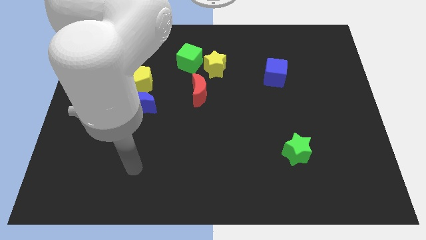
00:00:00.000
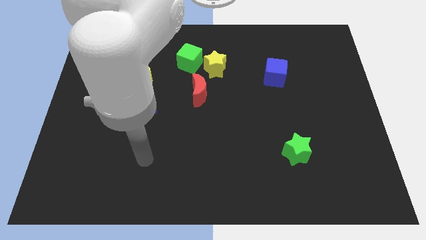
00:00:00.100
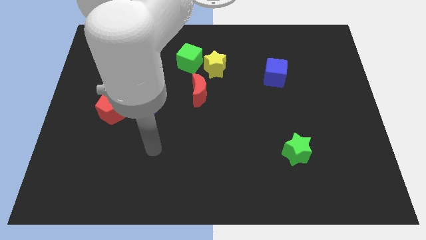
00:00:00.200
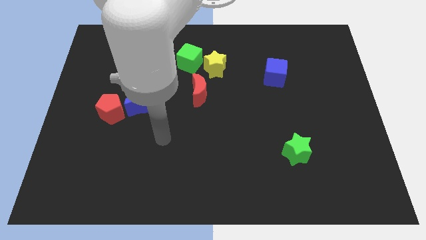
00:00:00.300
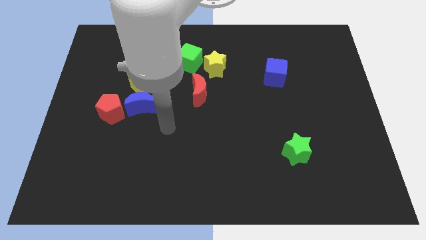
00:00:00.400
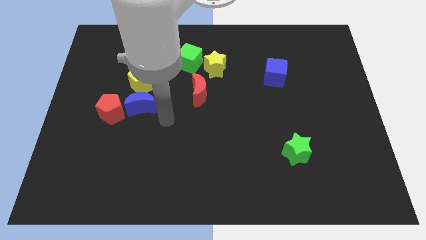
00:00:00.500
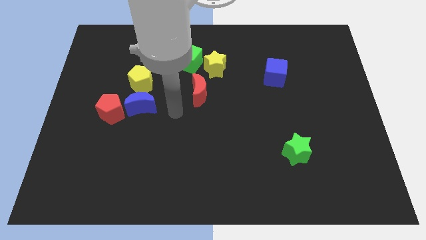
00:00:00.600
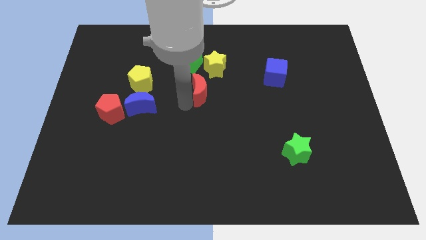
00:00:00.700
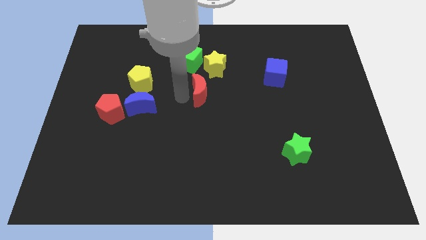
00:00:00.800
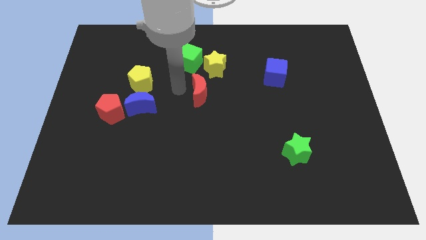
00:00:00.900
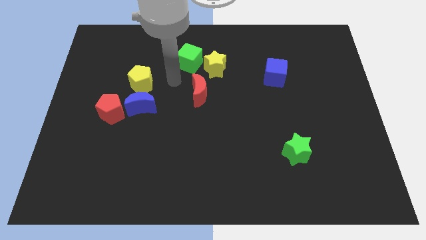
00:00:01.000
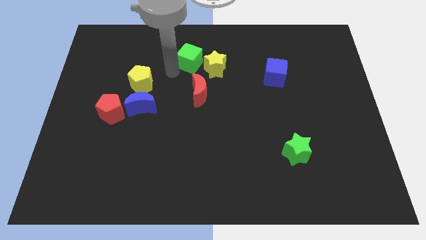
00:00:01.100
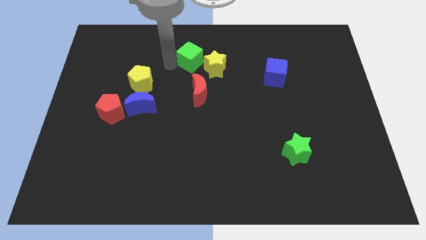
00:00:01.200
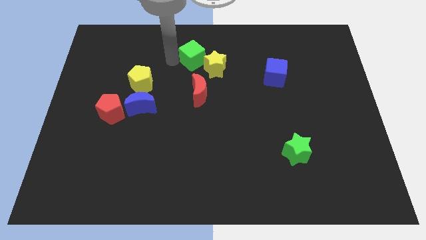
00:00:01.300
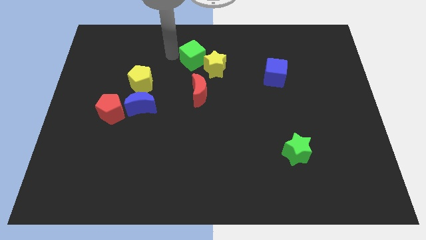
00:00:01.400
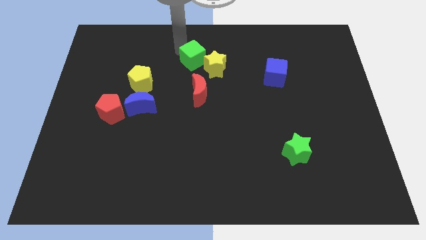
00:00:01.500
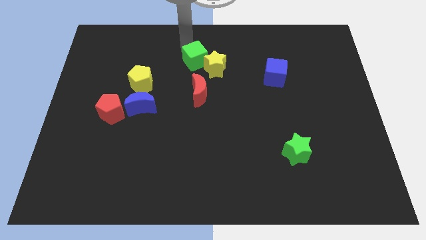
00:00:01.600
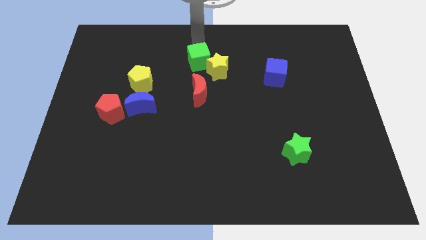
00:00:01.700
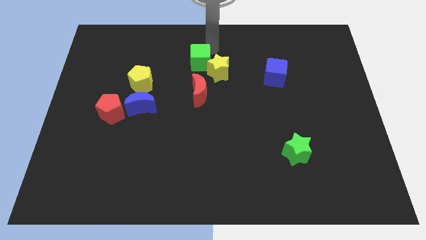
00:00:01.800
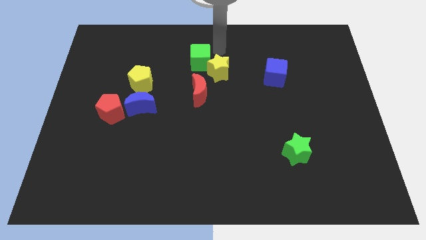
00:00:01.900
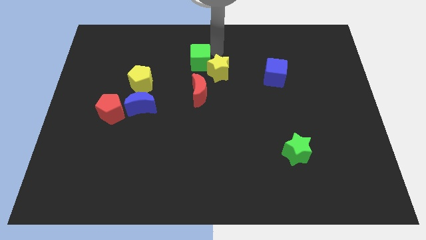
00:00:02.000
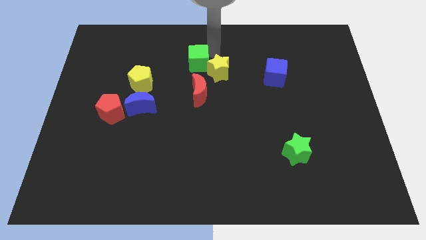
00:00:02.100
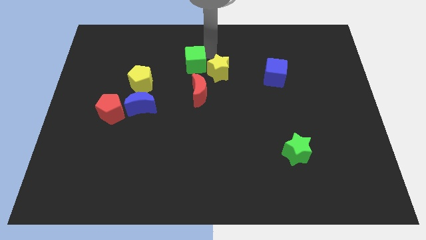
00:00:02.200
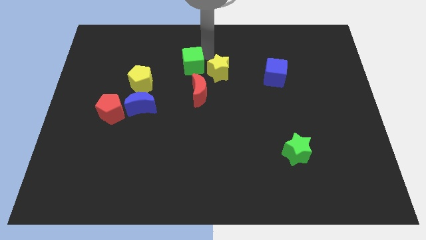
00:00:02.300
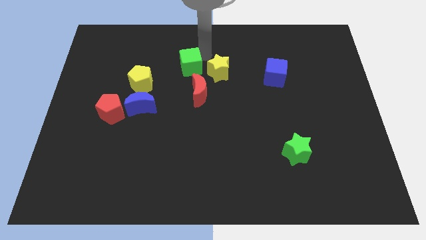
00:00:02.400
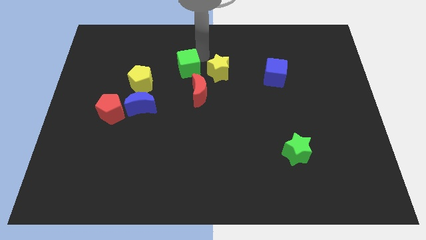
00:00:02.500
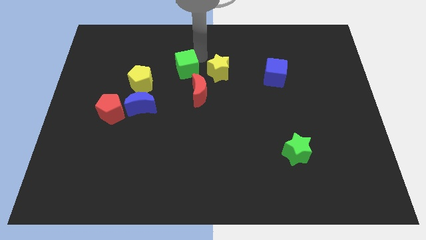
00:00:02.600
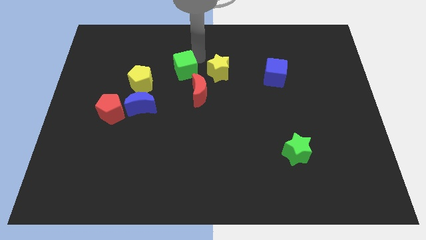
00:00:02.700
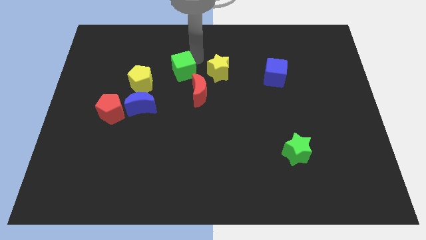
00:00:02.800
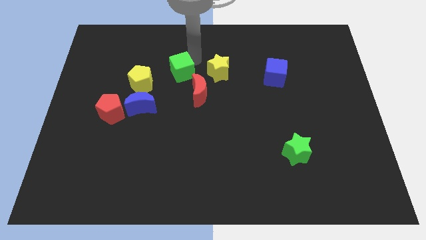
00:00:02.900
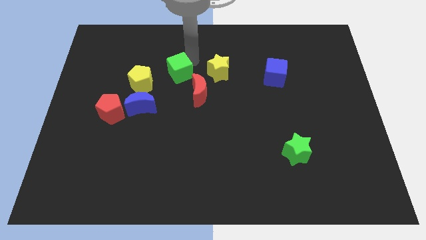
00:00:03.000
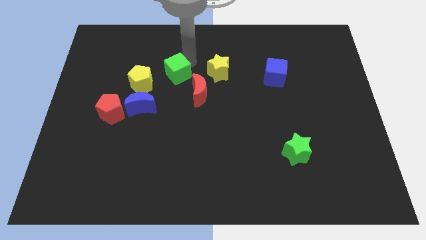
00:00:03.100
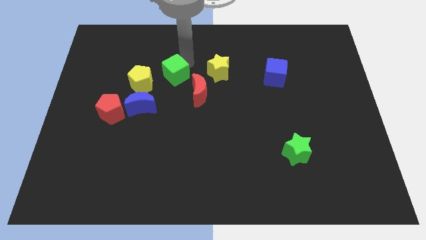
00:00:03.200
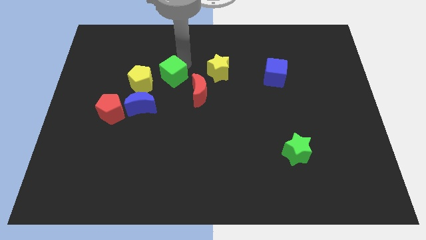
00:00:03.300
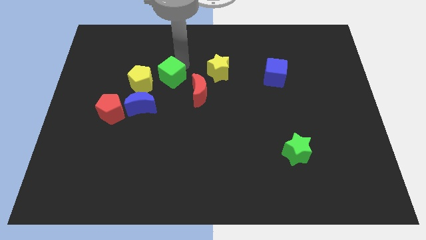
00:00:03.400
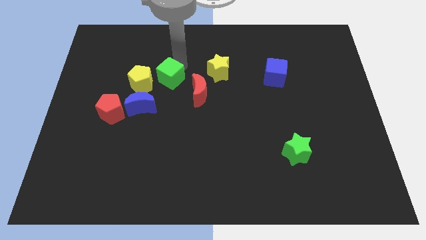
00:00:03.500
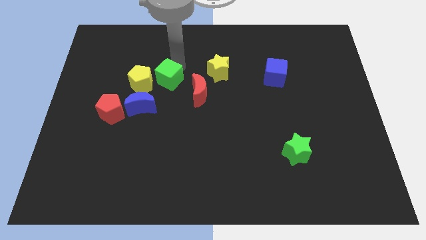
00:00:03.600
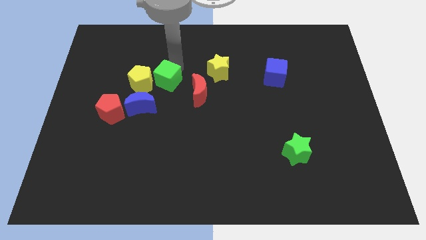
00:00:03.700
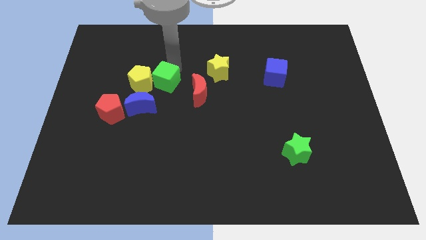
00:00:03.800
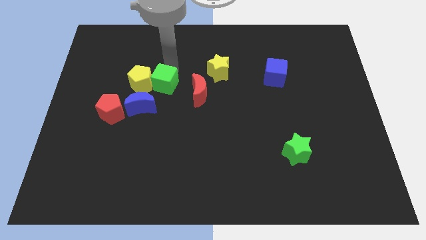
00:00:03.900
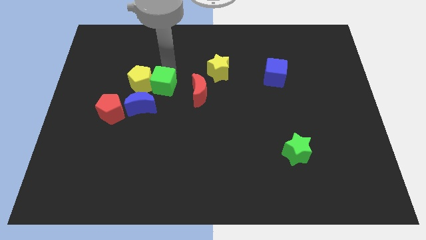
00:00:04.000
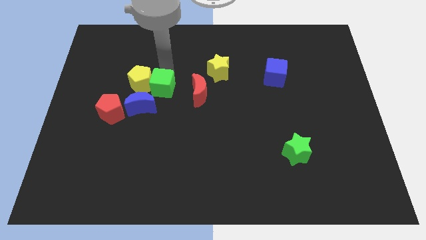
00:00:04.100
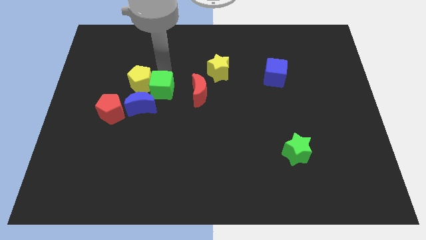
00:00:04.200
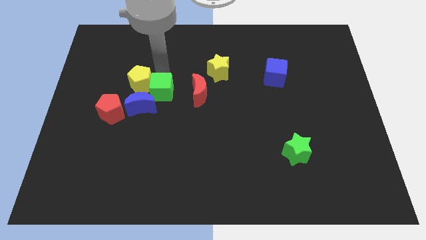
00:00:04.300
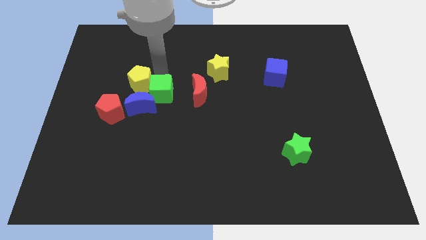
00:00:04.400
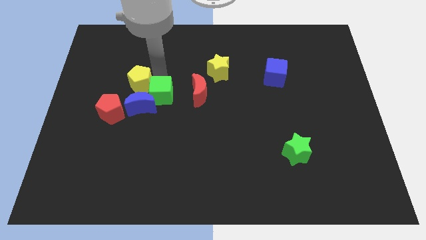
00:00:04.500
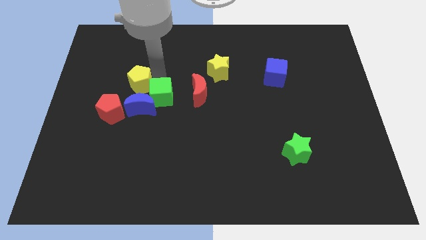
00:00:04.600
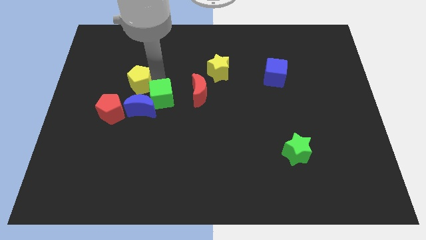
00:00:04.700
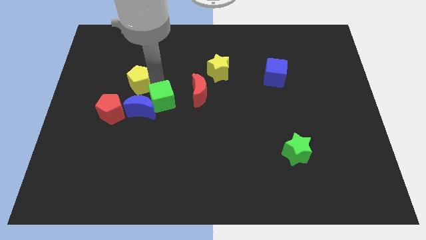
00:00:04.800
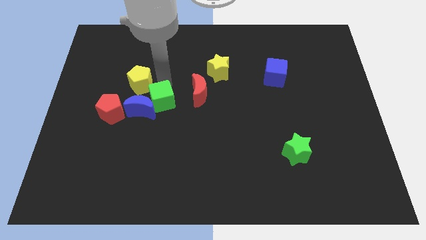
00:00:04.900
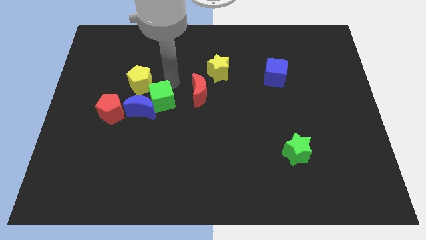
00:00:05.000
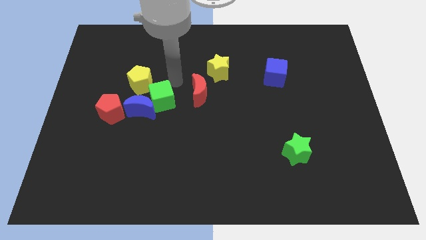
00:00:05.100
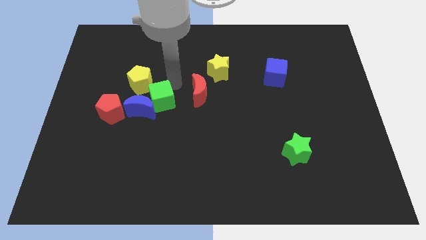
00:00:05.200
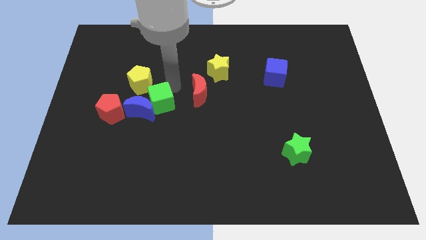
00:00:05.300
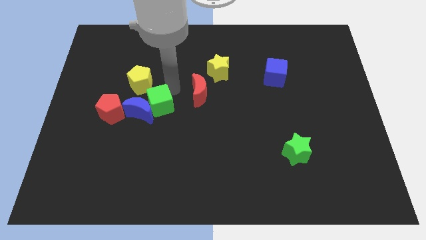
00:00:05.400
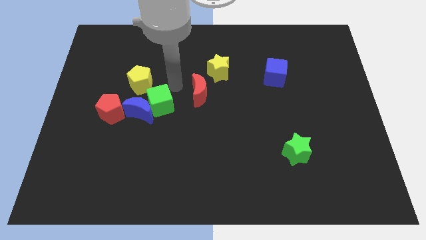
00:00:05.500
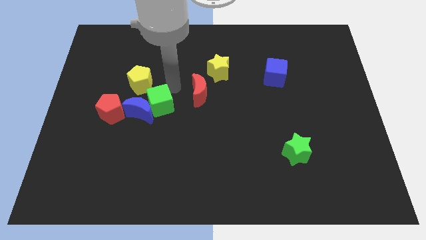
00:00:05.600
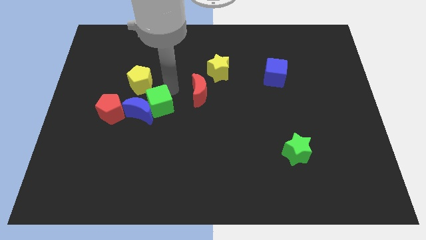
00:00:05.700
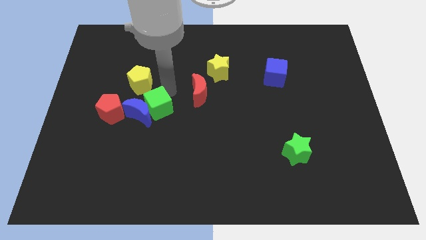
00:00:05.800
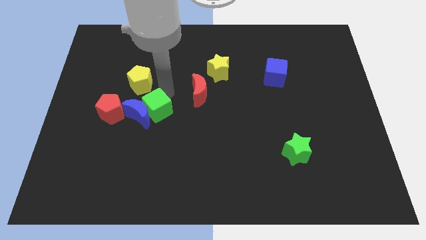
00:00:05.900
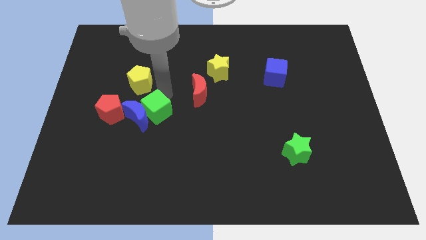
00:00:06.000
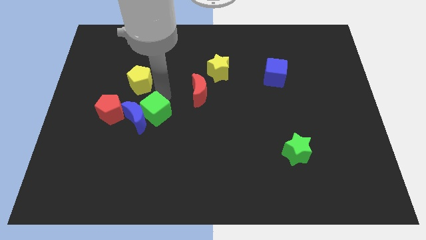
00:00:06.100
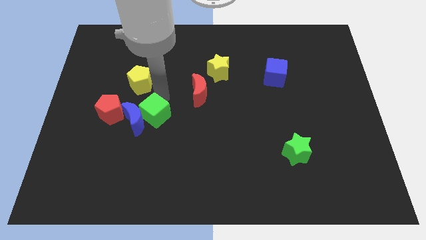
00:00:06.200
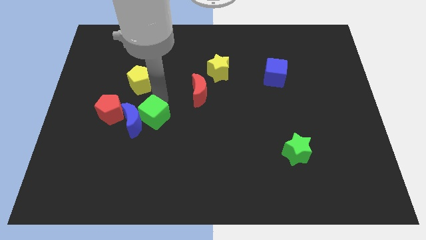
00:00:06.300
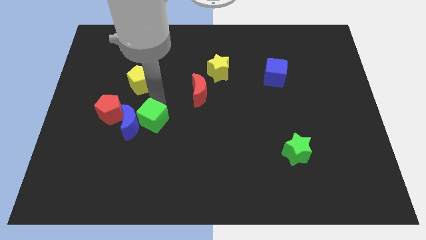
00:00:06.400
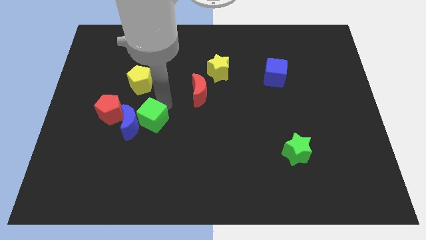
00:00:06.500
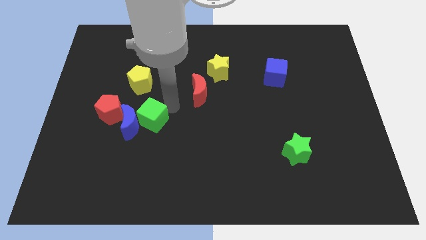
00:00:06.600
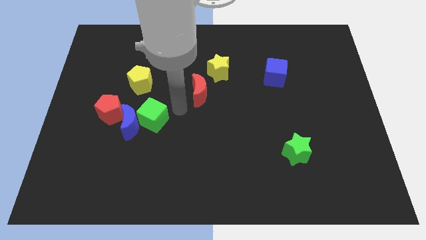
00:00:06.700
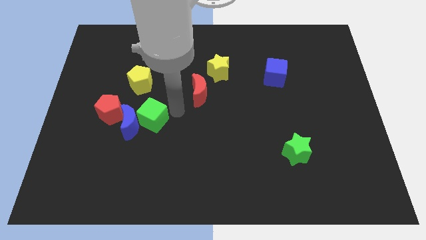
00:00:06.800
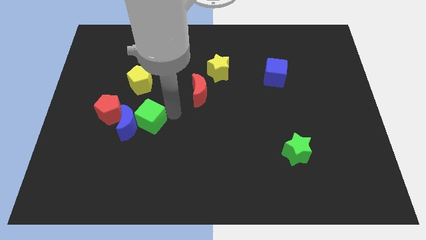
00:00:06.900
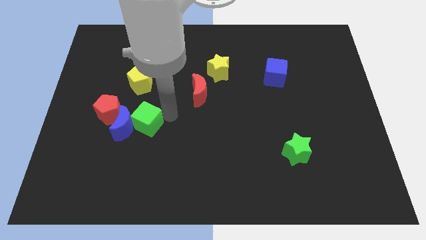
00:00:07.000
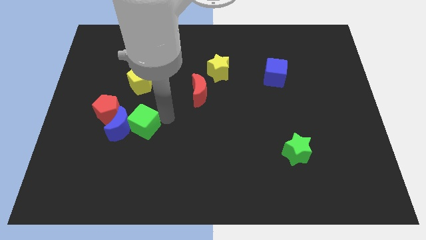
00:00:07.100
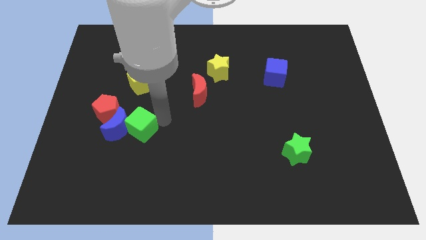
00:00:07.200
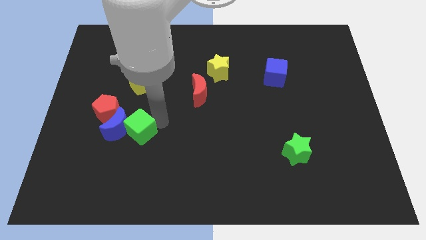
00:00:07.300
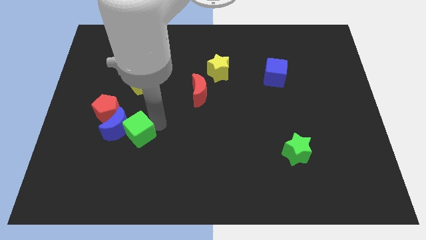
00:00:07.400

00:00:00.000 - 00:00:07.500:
slide the green cube downwards and then to the left

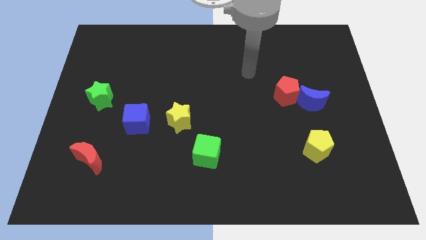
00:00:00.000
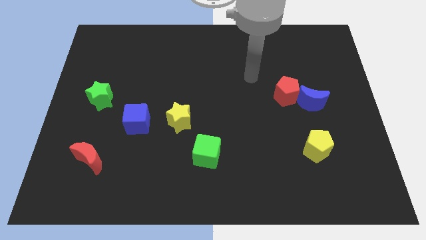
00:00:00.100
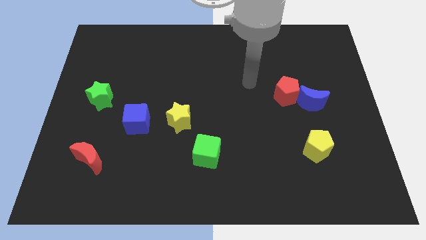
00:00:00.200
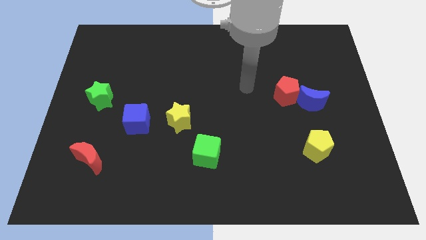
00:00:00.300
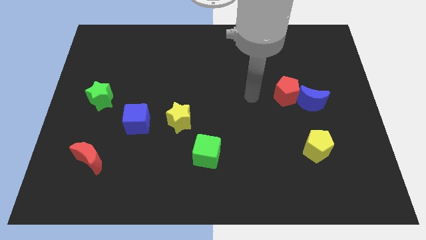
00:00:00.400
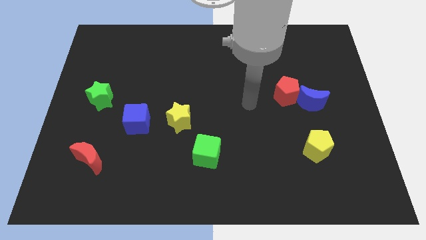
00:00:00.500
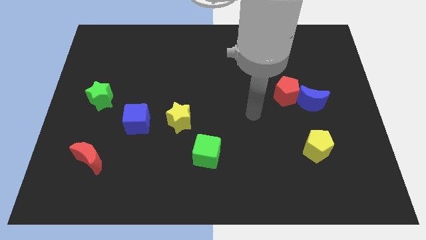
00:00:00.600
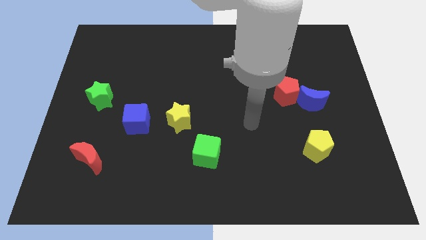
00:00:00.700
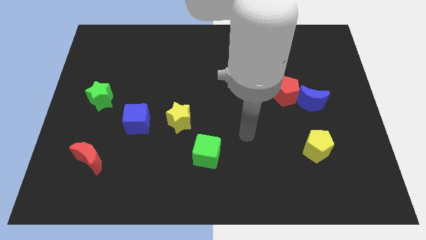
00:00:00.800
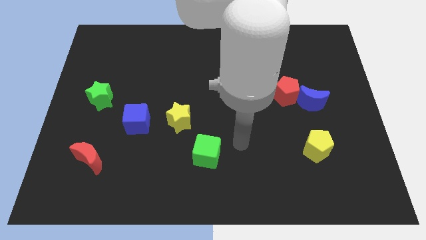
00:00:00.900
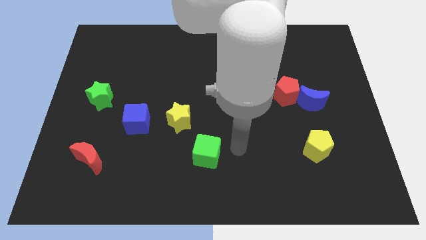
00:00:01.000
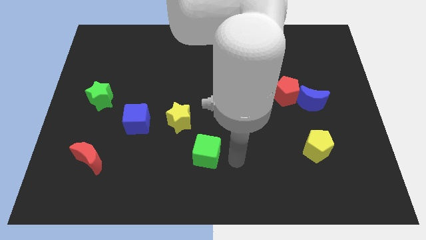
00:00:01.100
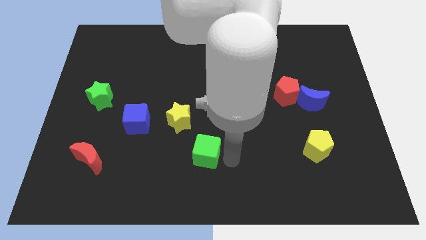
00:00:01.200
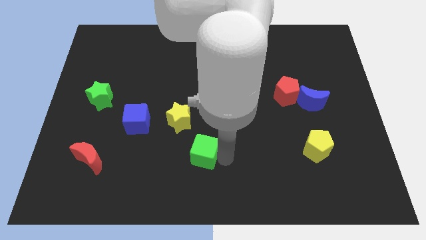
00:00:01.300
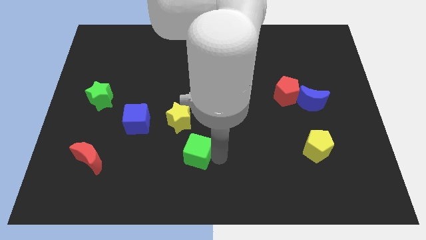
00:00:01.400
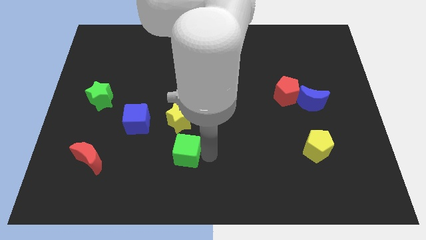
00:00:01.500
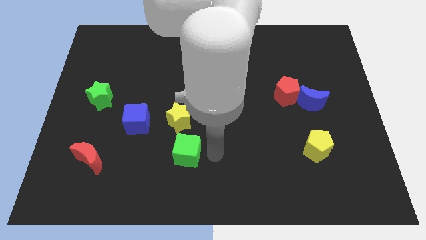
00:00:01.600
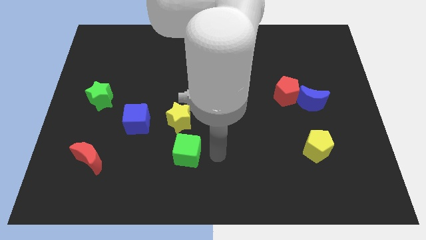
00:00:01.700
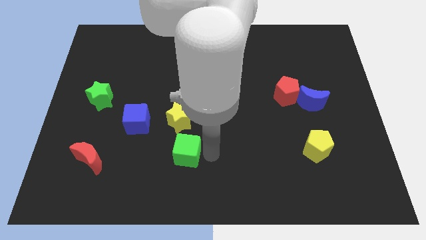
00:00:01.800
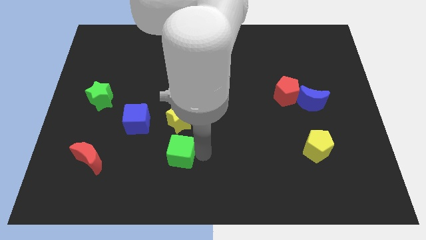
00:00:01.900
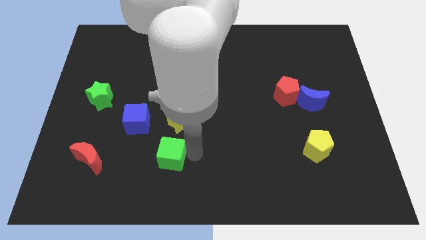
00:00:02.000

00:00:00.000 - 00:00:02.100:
move the green cube a little bit left
